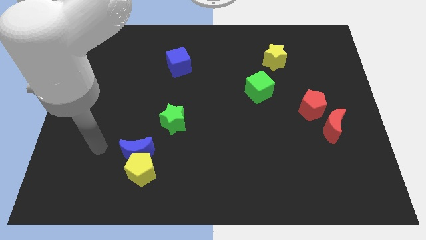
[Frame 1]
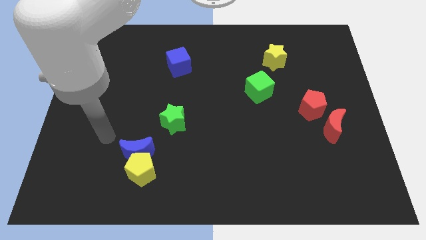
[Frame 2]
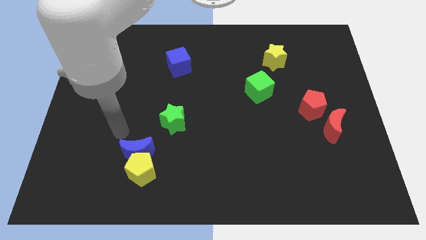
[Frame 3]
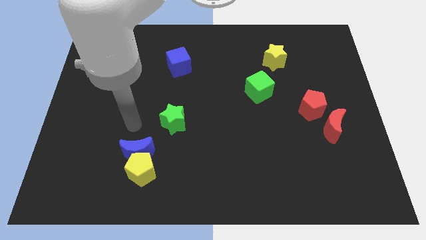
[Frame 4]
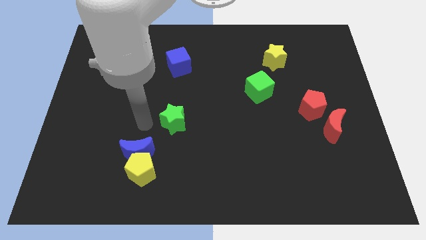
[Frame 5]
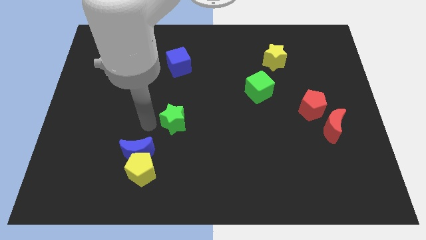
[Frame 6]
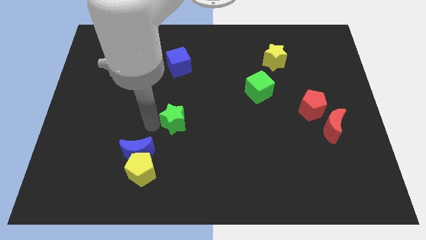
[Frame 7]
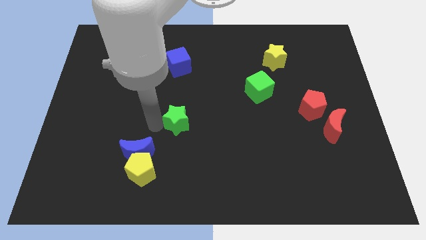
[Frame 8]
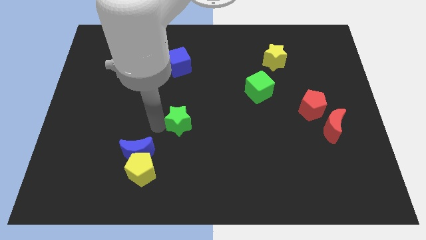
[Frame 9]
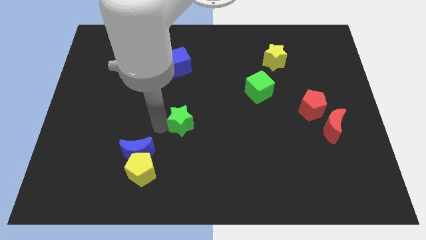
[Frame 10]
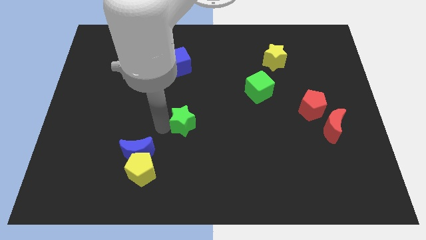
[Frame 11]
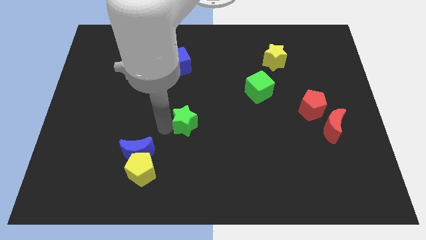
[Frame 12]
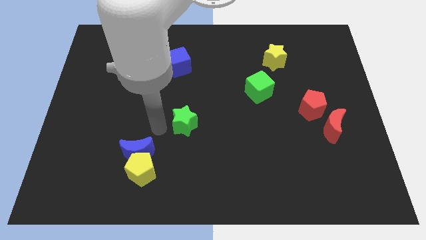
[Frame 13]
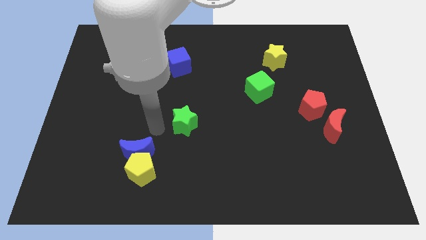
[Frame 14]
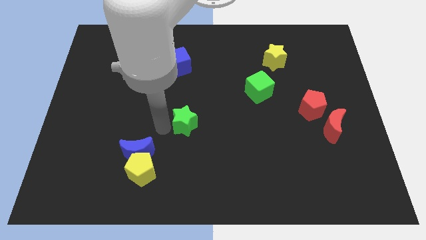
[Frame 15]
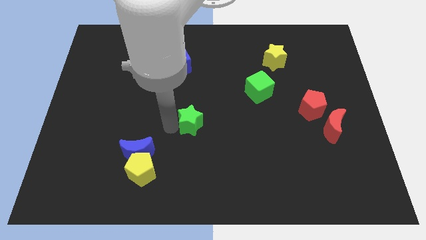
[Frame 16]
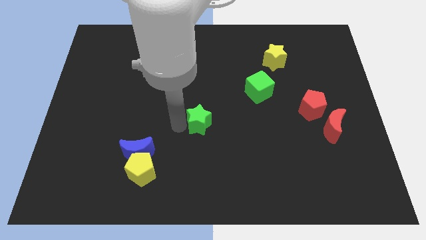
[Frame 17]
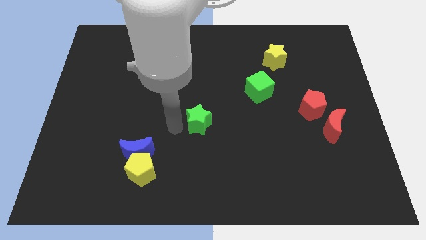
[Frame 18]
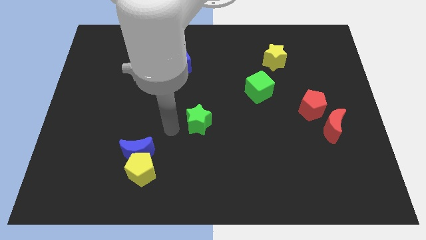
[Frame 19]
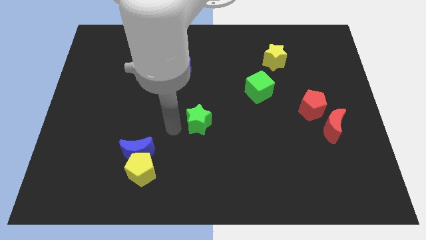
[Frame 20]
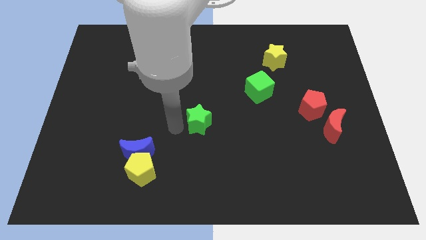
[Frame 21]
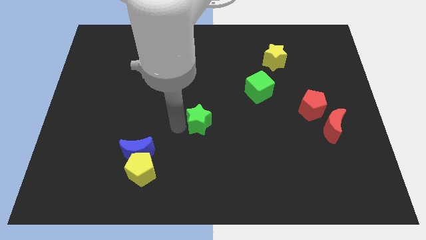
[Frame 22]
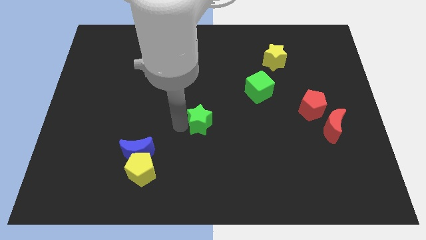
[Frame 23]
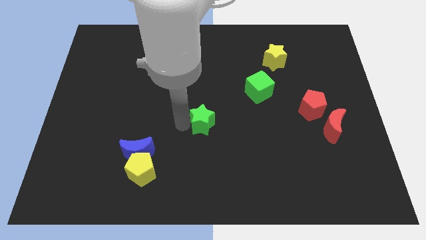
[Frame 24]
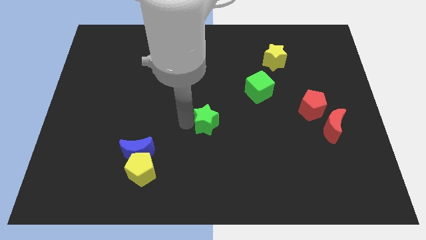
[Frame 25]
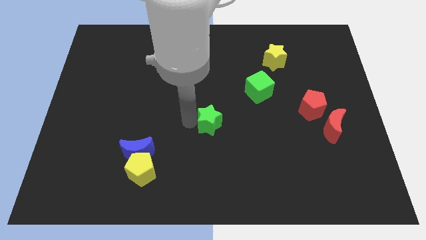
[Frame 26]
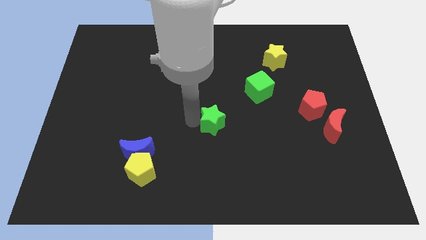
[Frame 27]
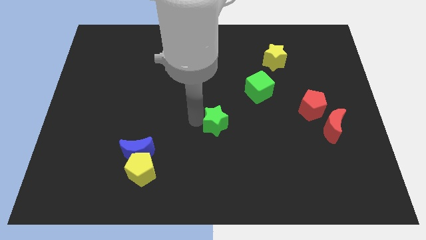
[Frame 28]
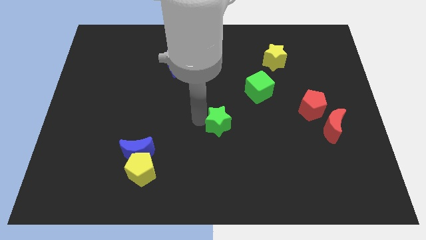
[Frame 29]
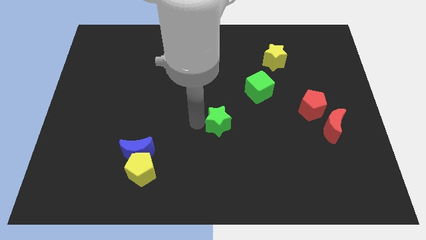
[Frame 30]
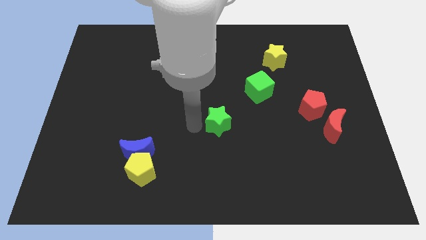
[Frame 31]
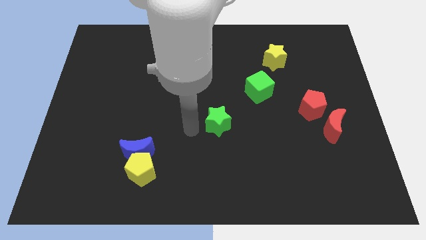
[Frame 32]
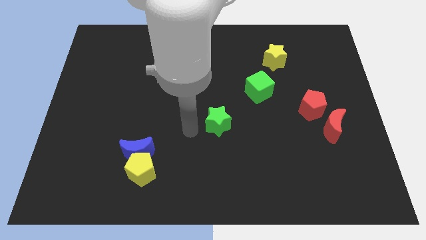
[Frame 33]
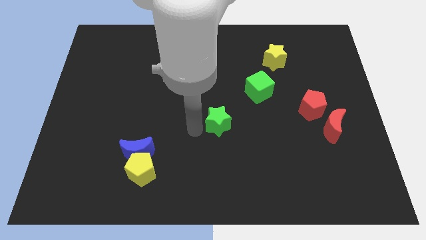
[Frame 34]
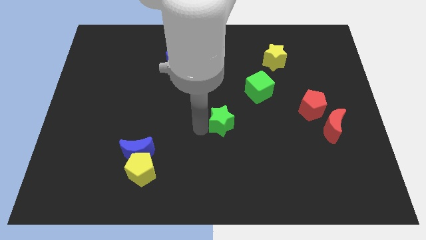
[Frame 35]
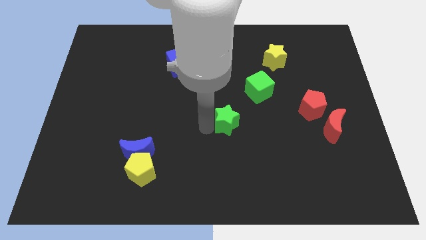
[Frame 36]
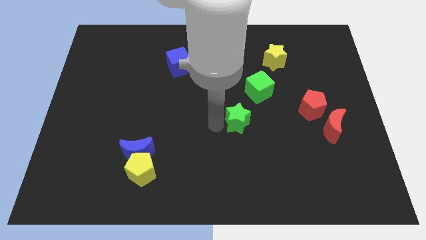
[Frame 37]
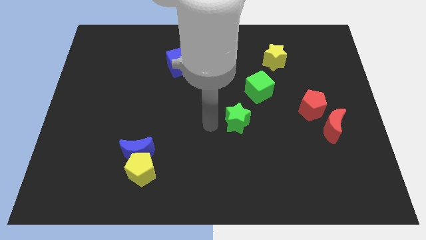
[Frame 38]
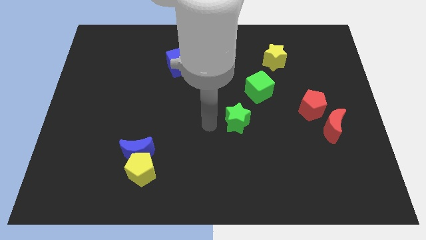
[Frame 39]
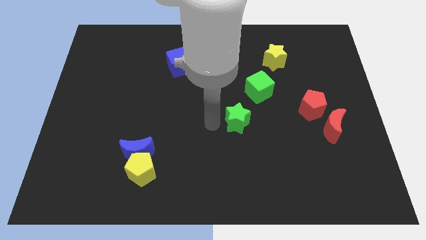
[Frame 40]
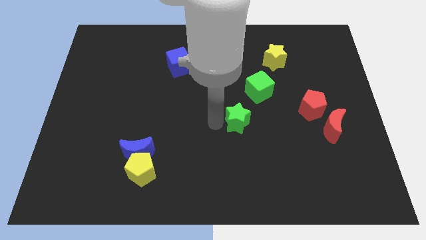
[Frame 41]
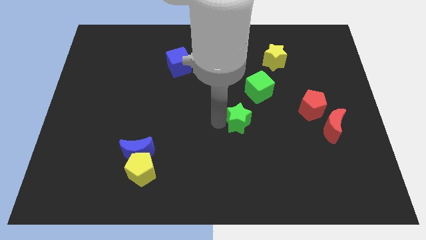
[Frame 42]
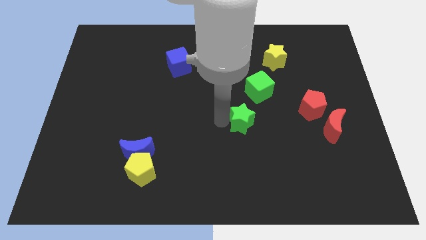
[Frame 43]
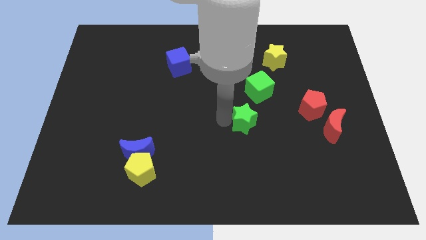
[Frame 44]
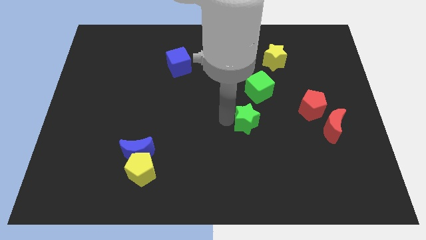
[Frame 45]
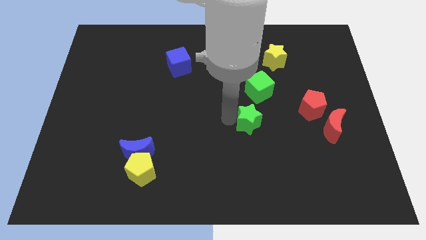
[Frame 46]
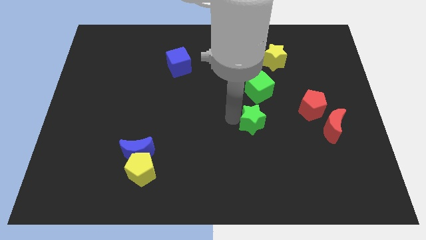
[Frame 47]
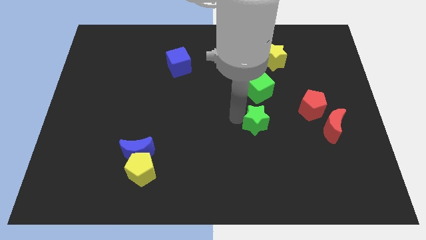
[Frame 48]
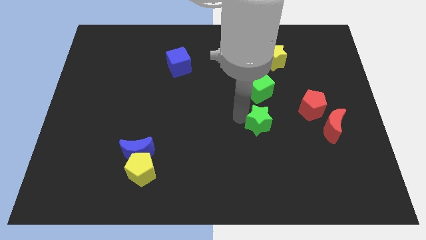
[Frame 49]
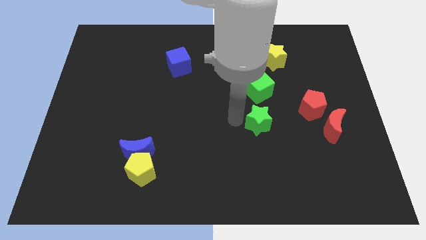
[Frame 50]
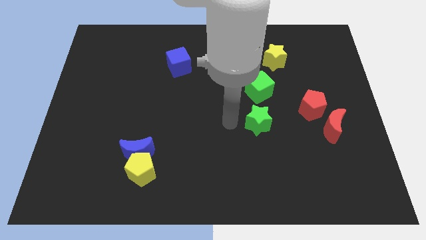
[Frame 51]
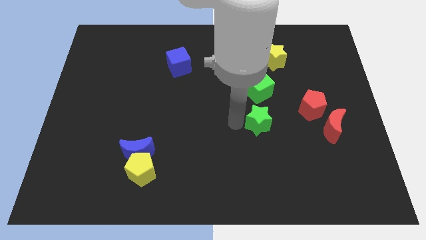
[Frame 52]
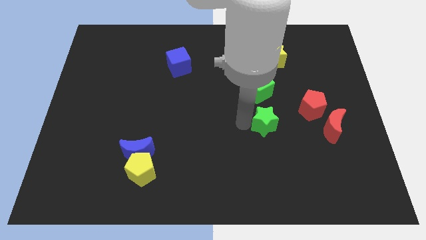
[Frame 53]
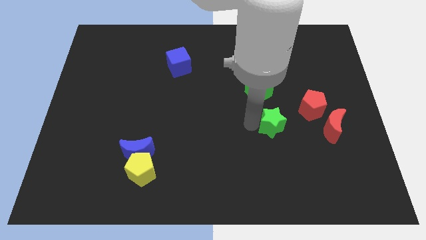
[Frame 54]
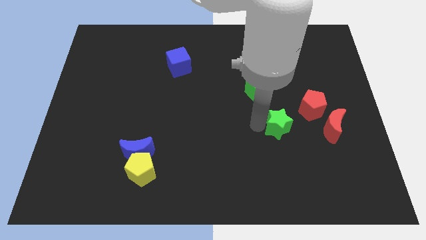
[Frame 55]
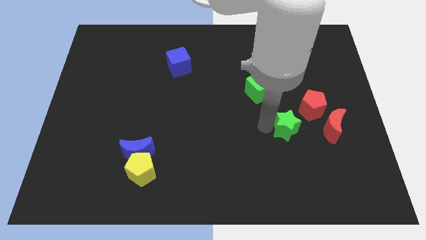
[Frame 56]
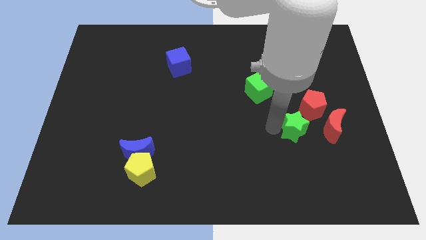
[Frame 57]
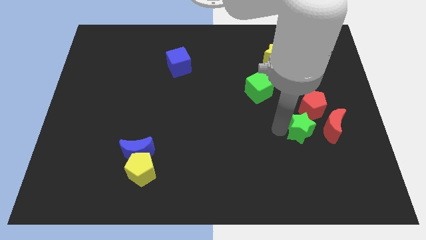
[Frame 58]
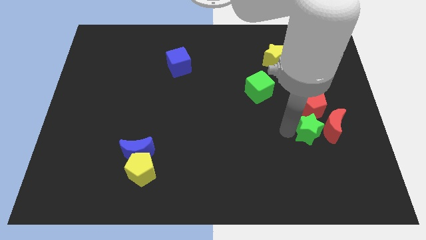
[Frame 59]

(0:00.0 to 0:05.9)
slide the green star close to the red moon

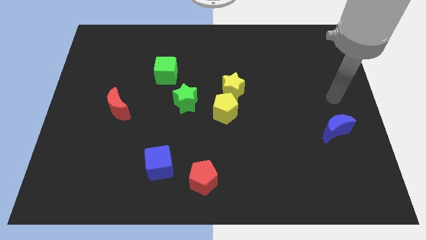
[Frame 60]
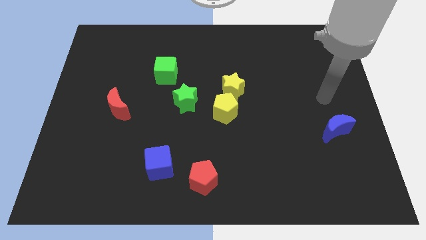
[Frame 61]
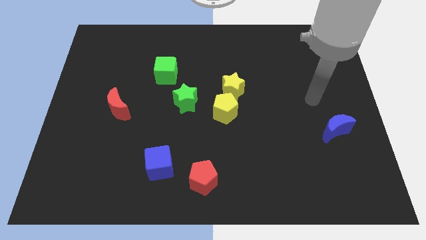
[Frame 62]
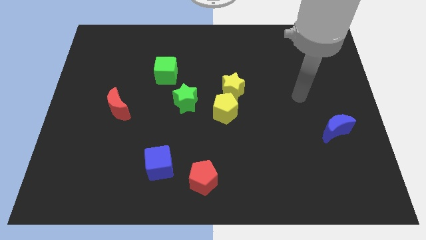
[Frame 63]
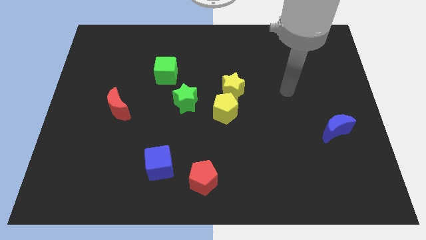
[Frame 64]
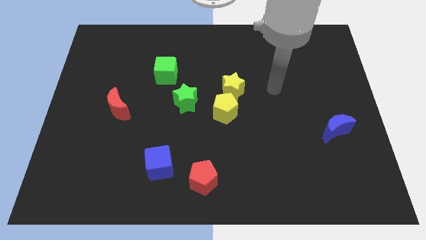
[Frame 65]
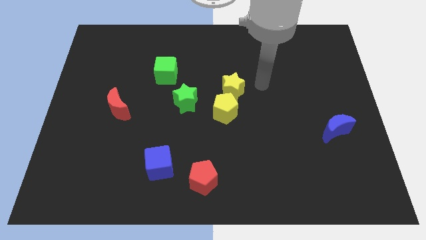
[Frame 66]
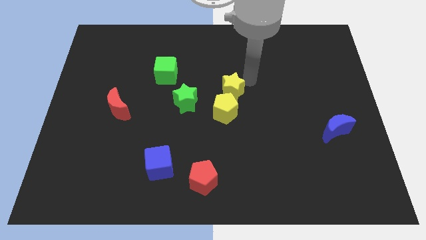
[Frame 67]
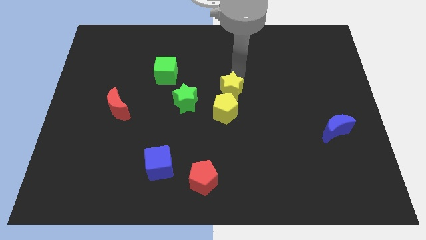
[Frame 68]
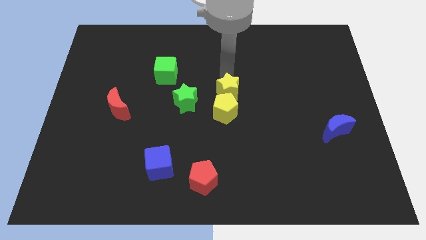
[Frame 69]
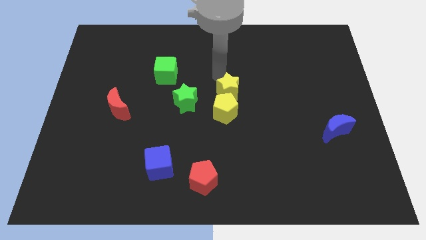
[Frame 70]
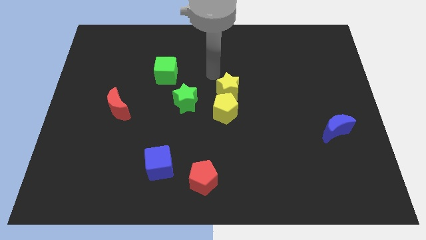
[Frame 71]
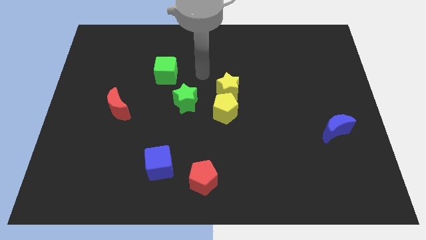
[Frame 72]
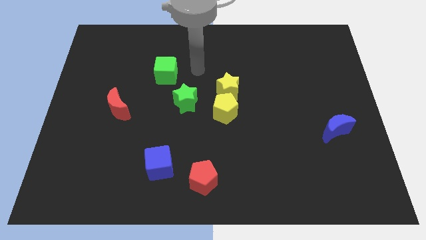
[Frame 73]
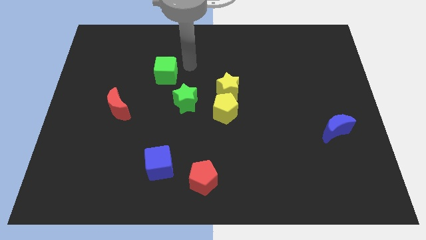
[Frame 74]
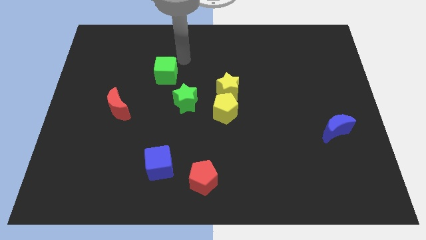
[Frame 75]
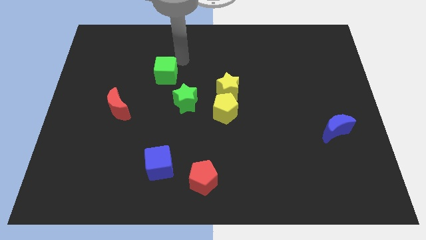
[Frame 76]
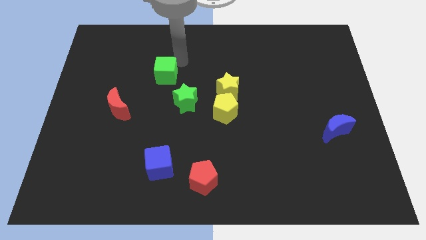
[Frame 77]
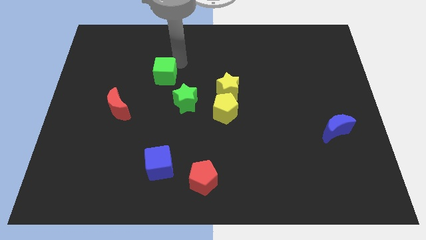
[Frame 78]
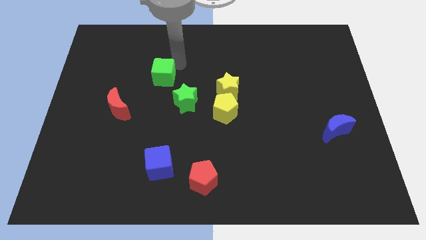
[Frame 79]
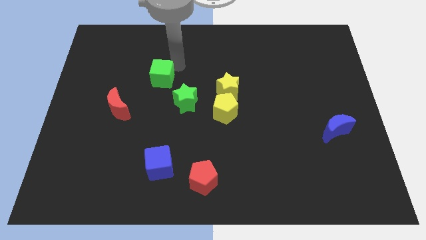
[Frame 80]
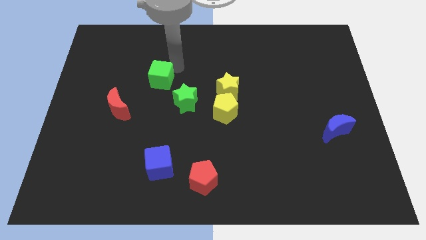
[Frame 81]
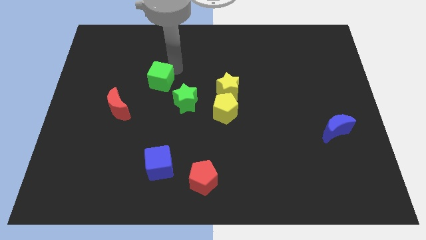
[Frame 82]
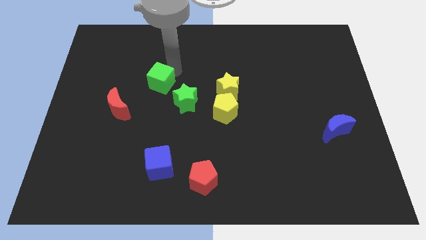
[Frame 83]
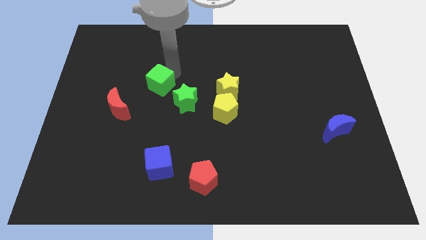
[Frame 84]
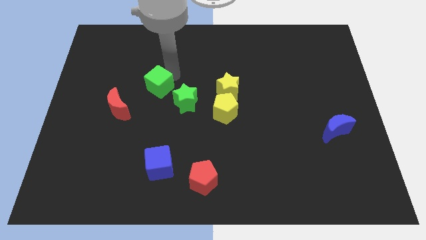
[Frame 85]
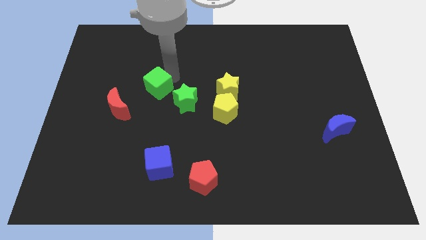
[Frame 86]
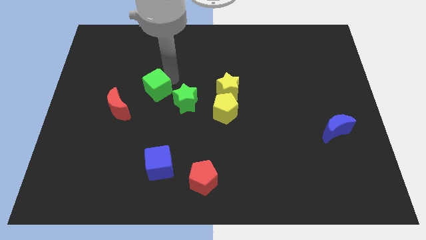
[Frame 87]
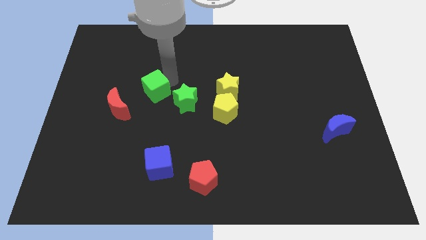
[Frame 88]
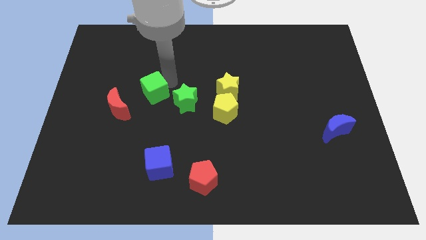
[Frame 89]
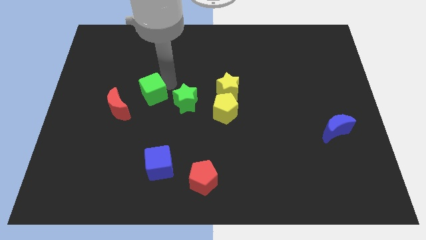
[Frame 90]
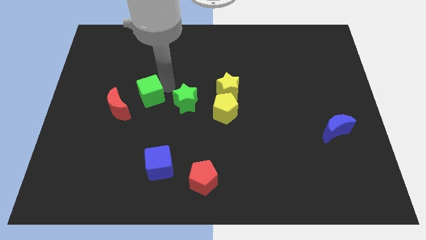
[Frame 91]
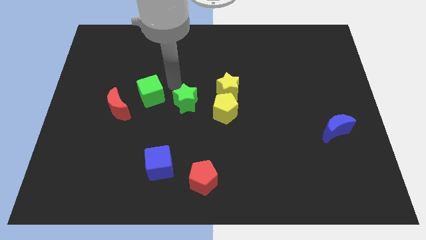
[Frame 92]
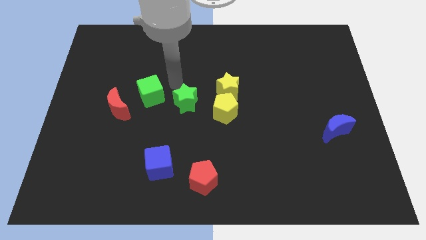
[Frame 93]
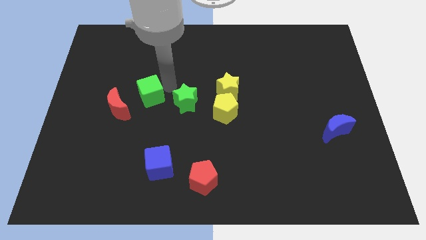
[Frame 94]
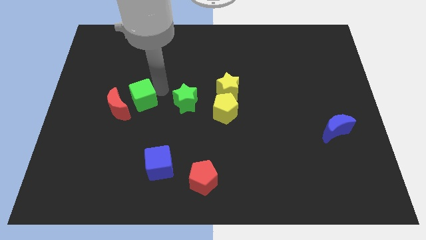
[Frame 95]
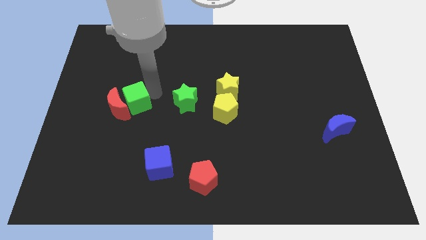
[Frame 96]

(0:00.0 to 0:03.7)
move the green cube towards the red moon
